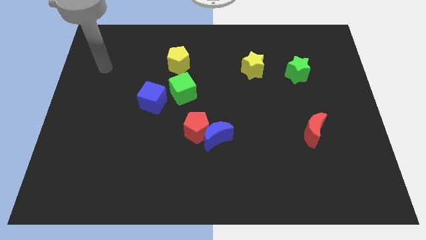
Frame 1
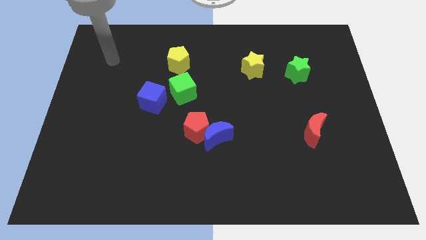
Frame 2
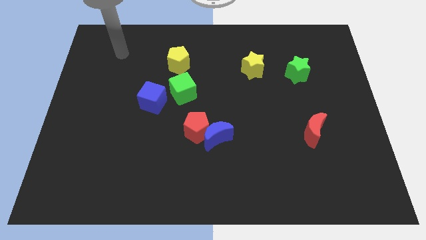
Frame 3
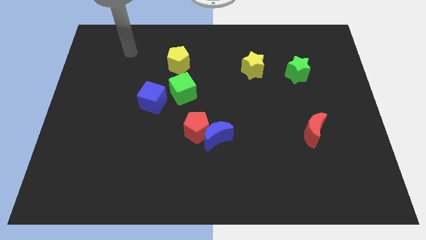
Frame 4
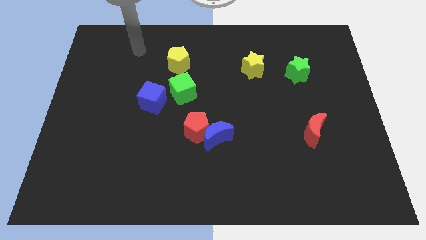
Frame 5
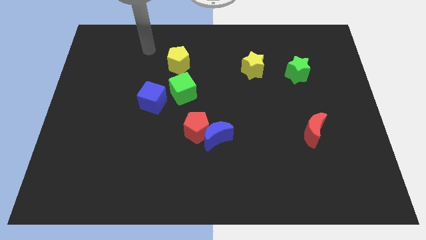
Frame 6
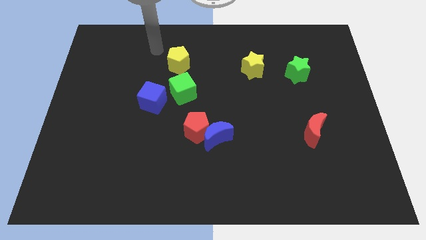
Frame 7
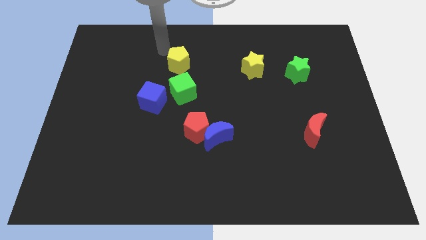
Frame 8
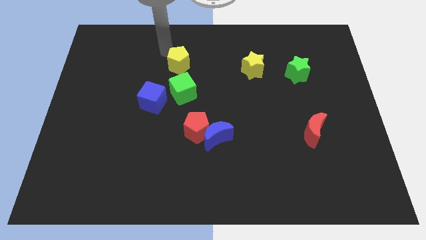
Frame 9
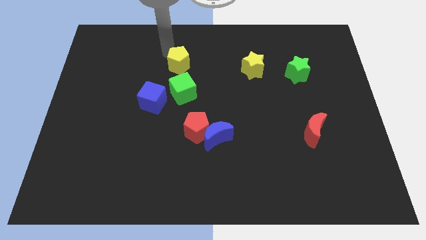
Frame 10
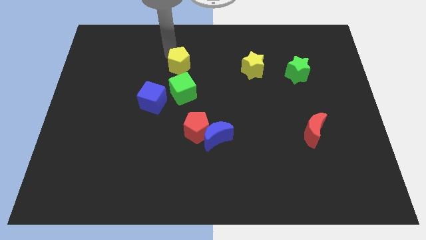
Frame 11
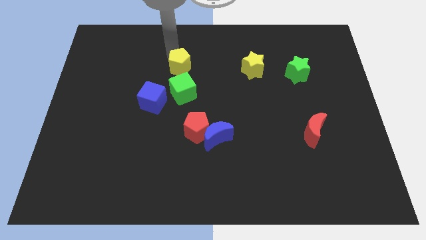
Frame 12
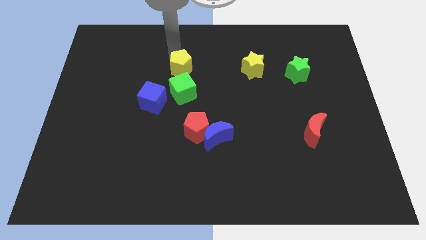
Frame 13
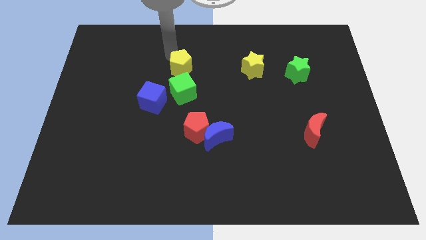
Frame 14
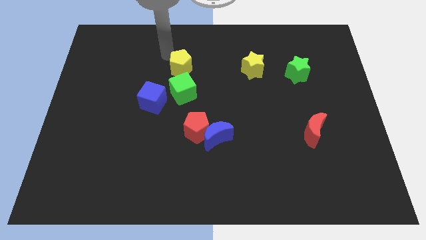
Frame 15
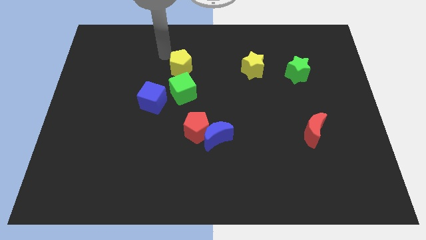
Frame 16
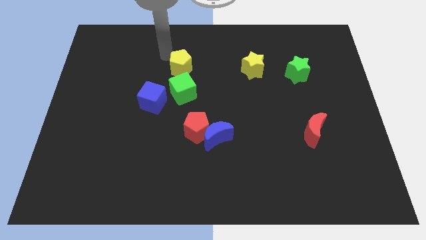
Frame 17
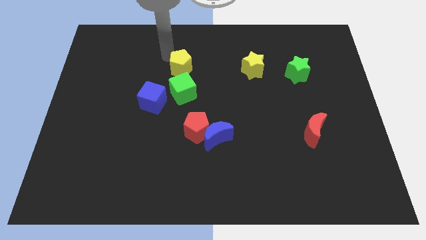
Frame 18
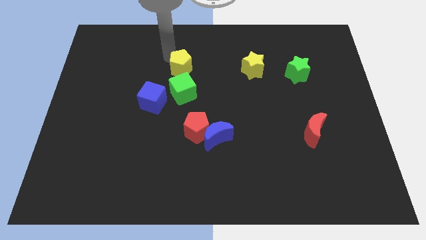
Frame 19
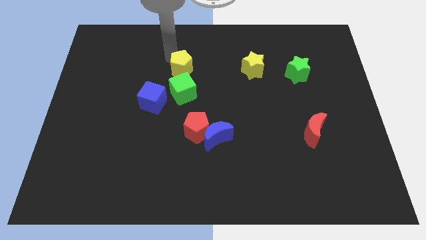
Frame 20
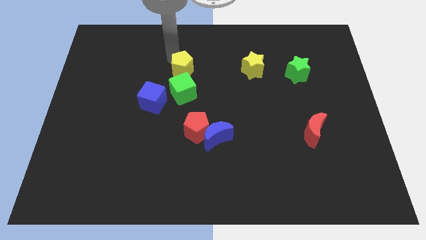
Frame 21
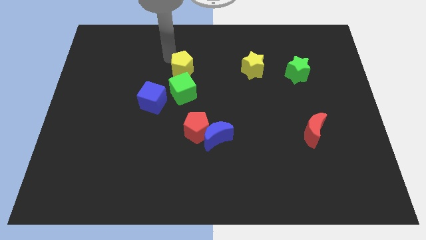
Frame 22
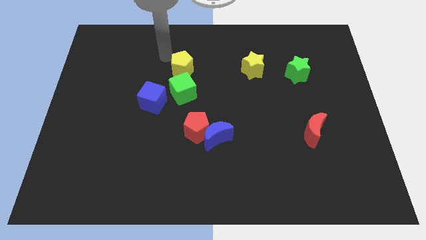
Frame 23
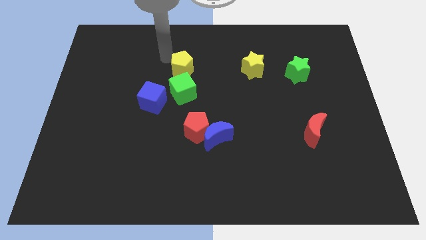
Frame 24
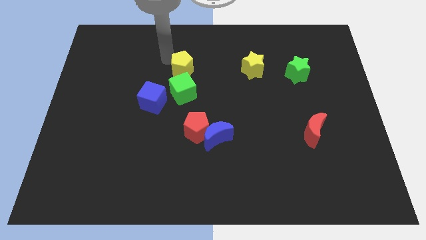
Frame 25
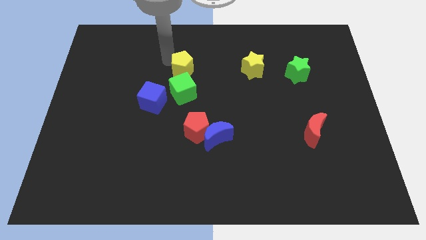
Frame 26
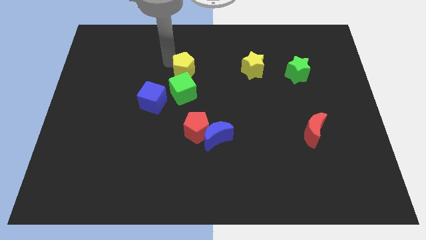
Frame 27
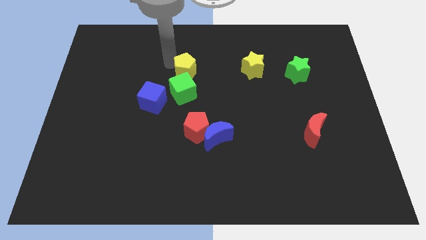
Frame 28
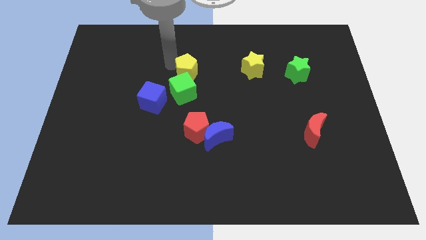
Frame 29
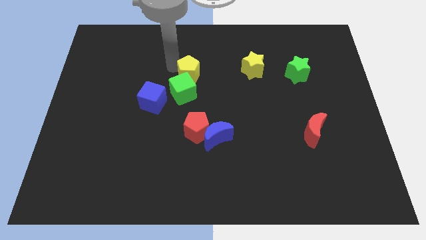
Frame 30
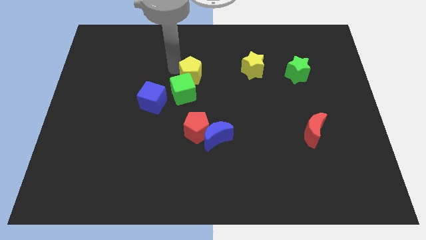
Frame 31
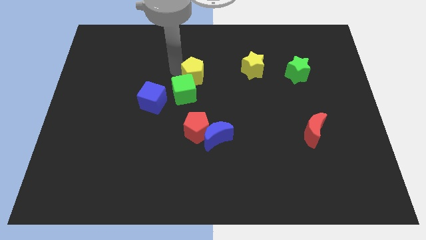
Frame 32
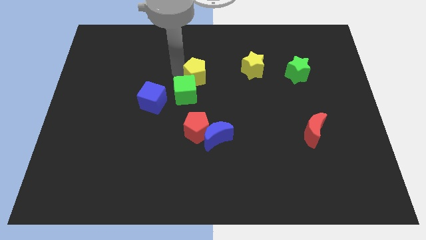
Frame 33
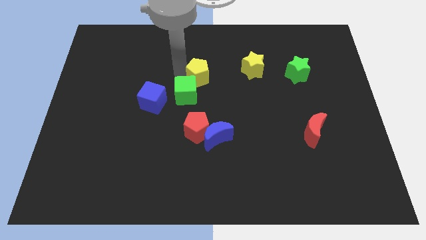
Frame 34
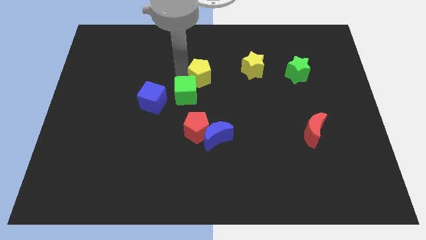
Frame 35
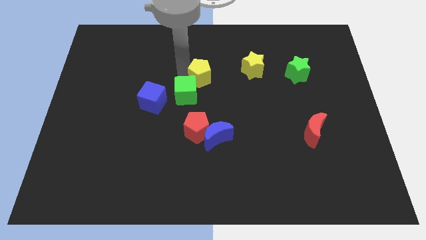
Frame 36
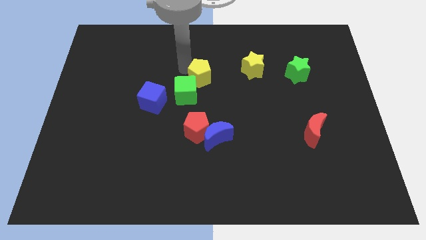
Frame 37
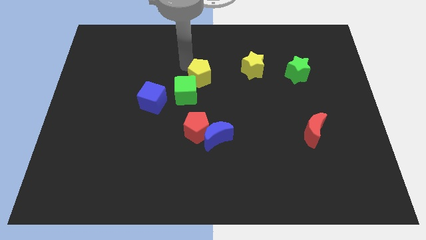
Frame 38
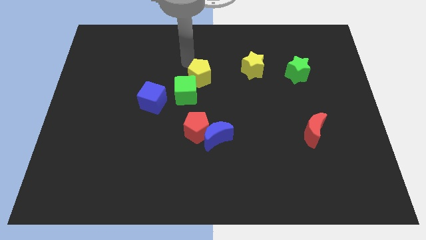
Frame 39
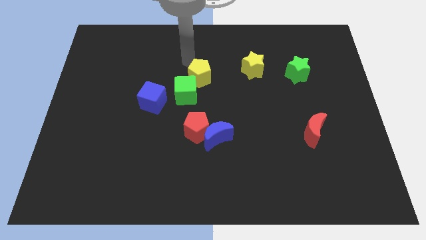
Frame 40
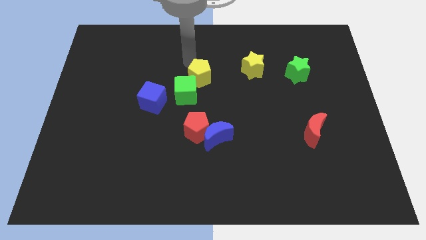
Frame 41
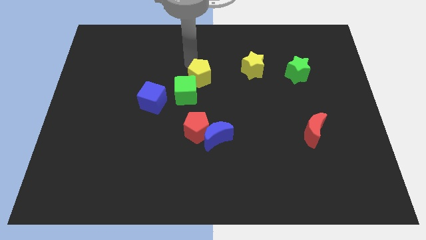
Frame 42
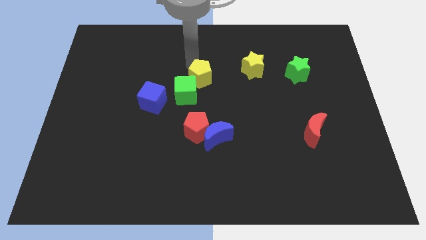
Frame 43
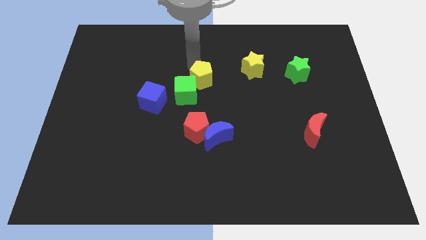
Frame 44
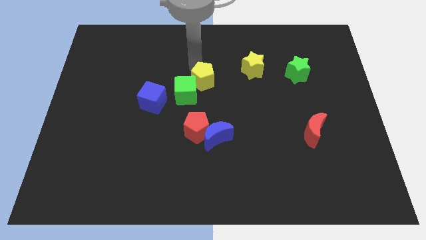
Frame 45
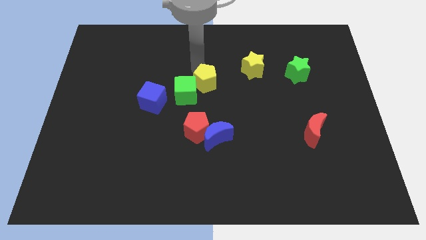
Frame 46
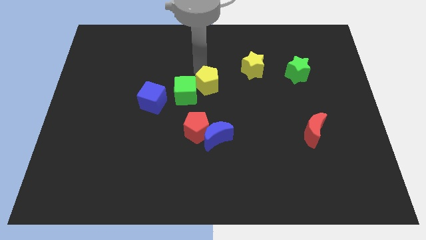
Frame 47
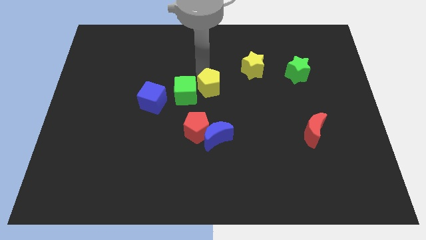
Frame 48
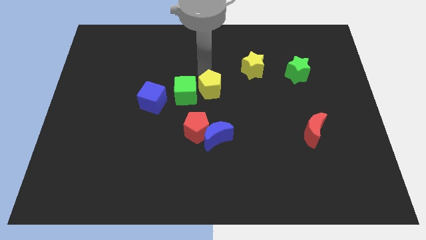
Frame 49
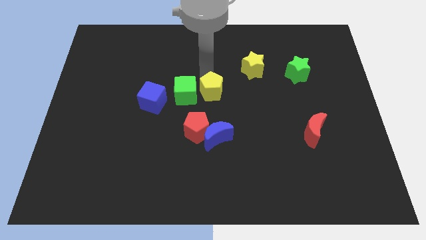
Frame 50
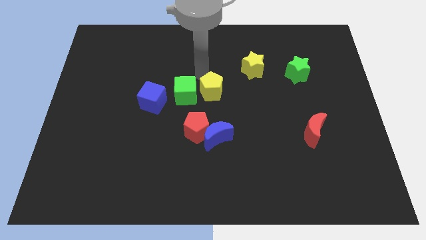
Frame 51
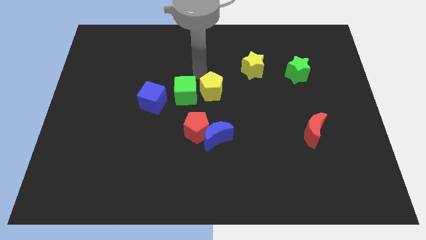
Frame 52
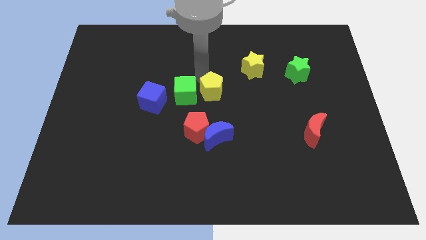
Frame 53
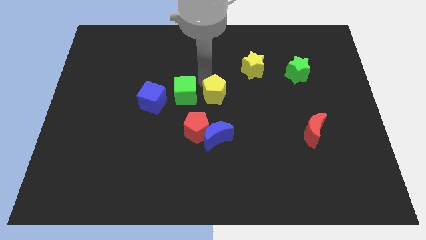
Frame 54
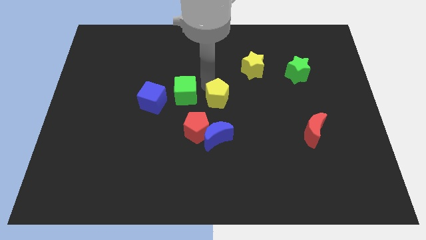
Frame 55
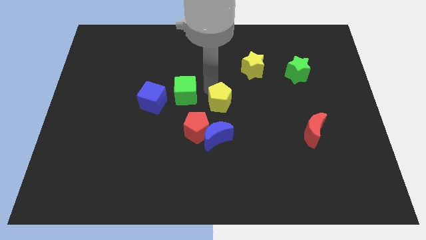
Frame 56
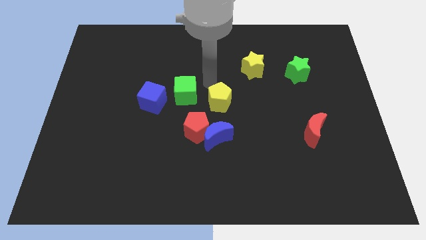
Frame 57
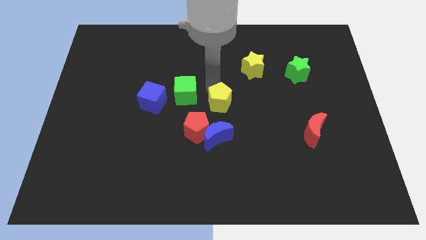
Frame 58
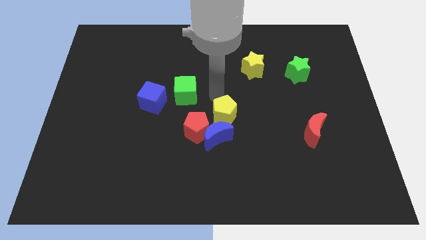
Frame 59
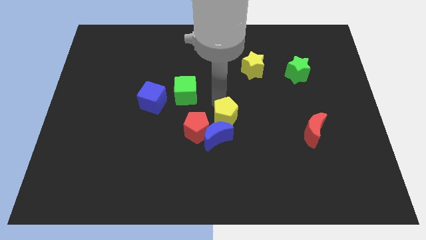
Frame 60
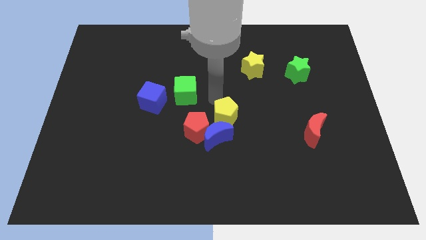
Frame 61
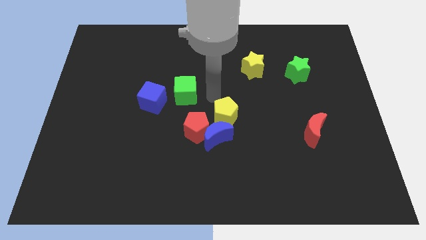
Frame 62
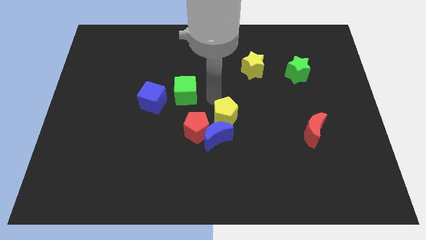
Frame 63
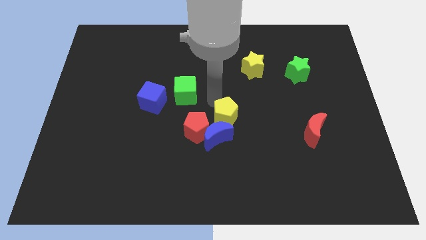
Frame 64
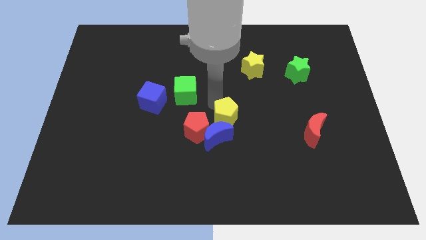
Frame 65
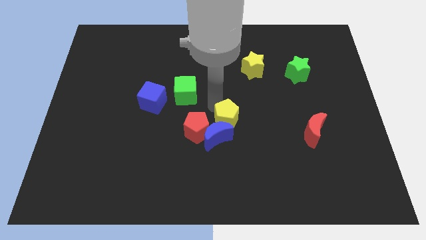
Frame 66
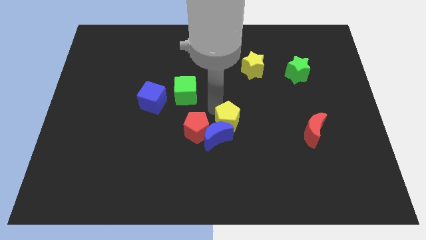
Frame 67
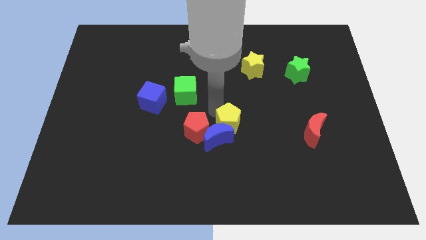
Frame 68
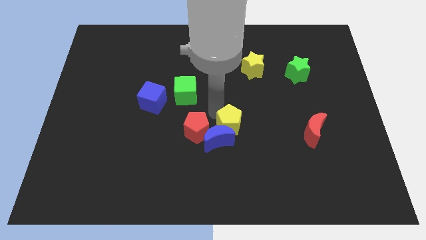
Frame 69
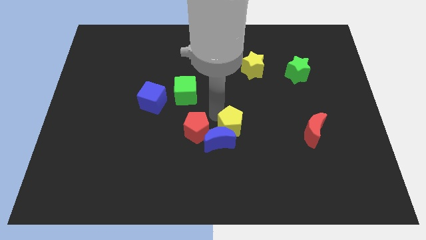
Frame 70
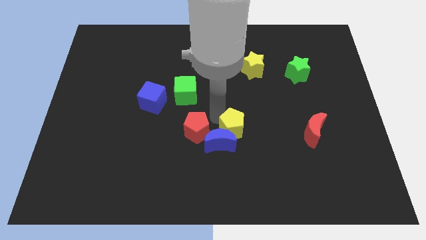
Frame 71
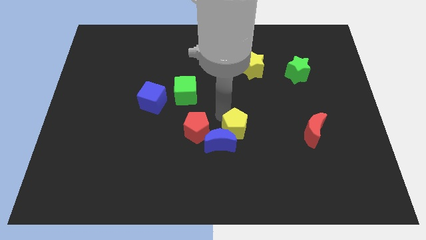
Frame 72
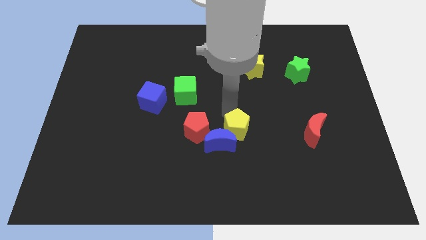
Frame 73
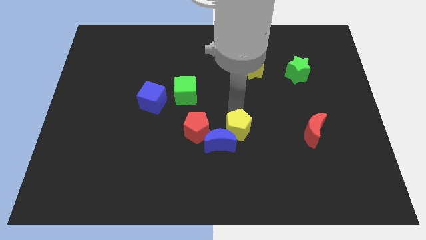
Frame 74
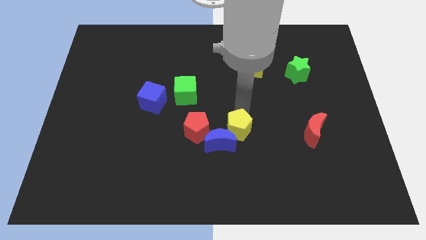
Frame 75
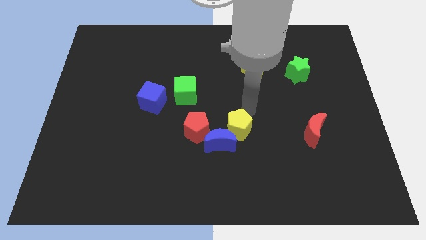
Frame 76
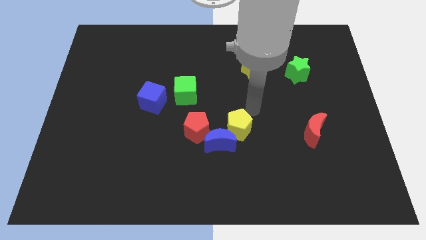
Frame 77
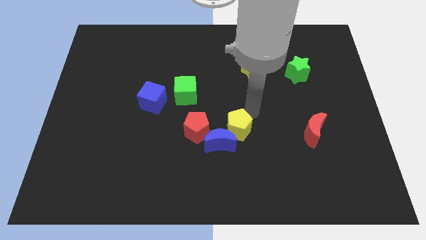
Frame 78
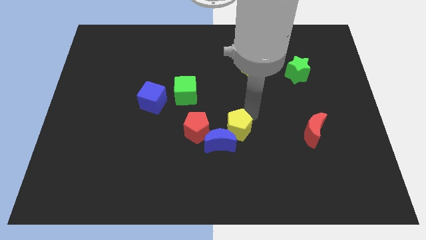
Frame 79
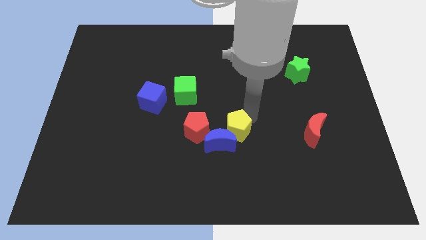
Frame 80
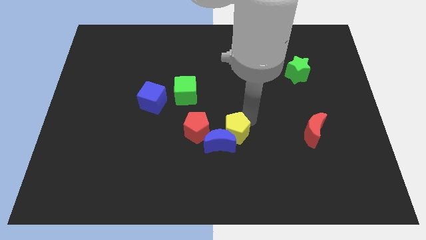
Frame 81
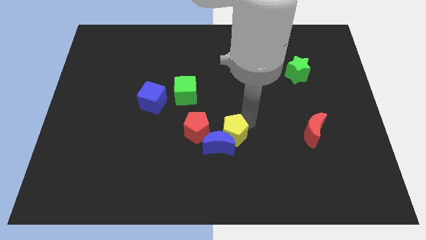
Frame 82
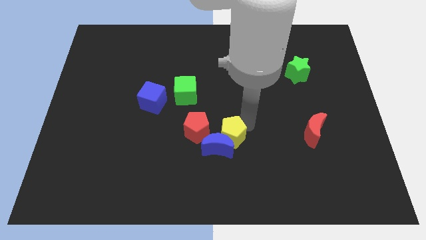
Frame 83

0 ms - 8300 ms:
push the yellow pentagon to the bottom right of the red pentagon
